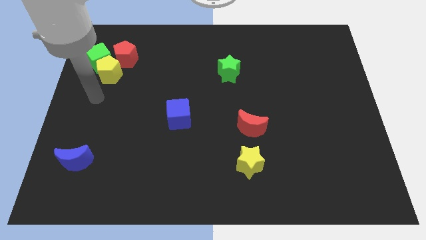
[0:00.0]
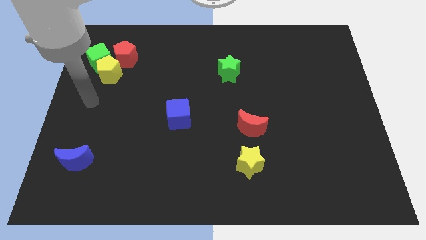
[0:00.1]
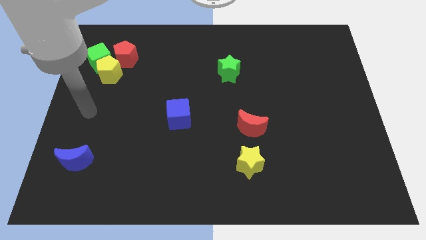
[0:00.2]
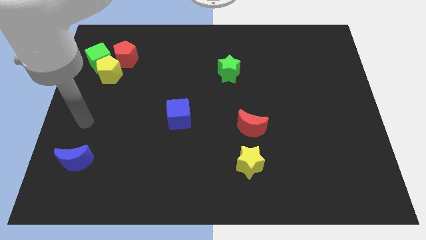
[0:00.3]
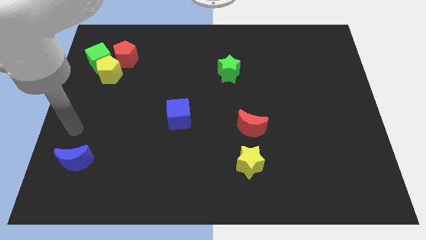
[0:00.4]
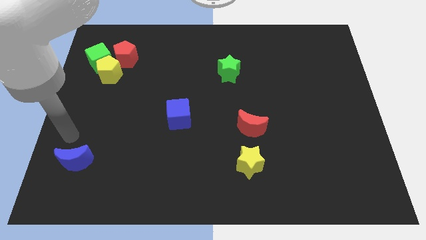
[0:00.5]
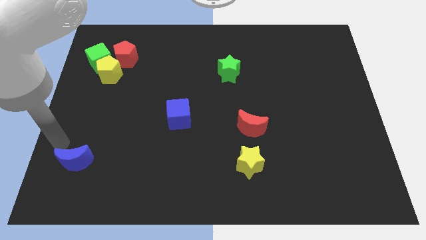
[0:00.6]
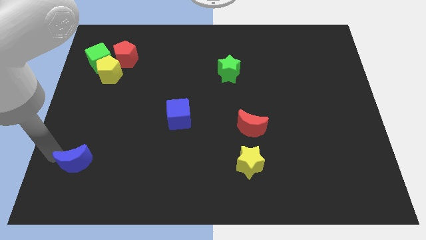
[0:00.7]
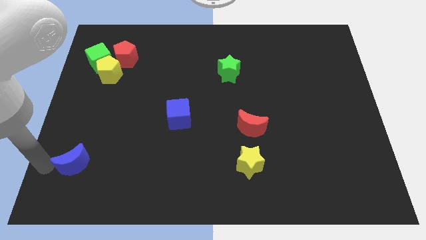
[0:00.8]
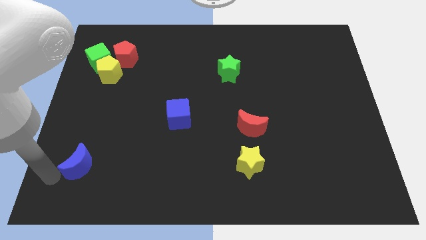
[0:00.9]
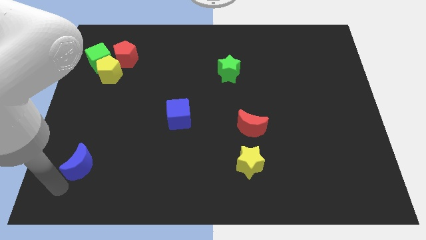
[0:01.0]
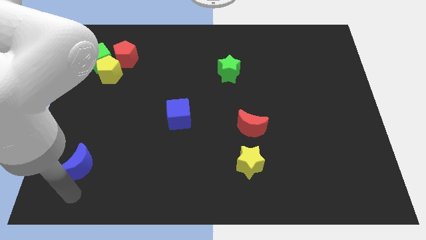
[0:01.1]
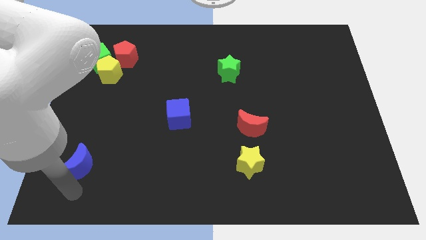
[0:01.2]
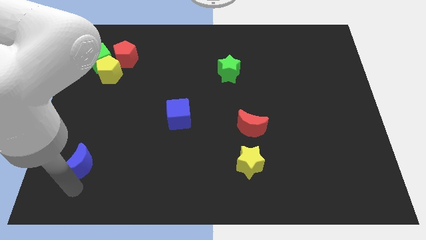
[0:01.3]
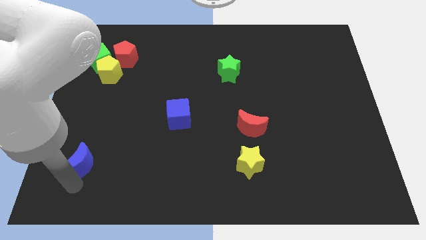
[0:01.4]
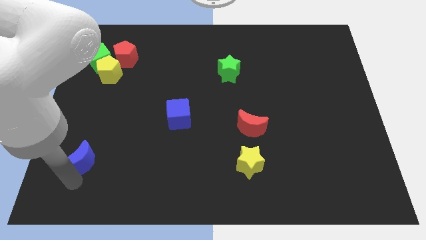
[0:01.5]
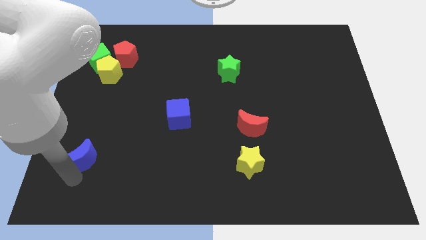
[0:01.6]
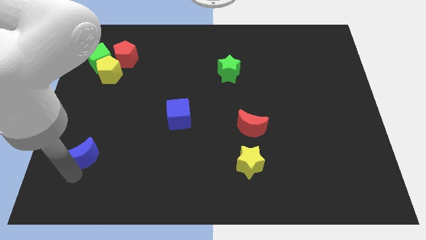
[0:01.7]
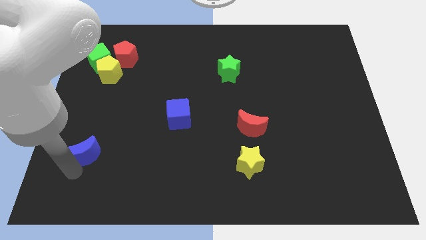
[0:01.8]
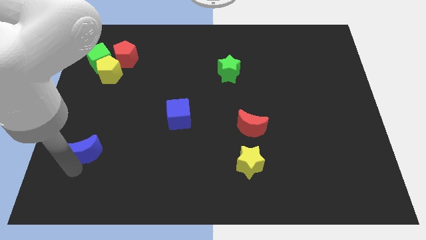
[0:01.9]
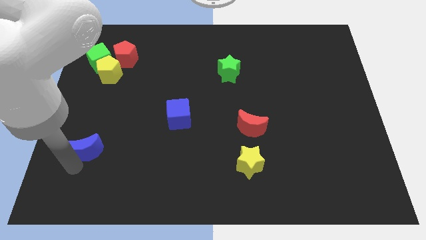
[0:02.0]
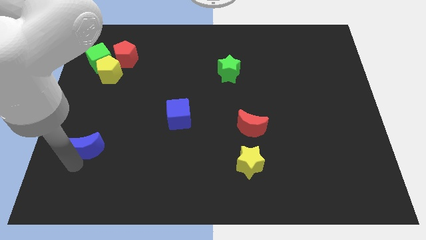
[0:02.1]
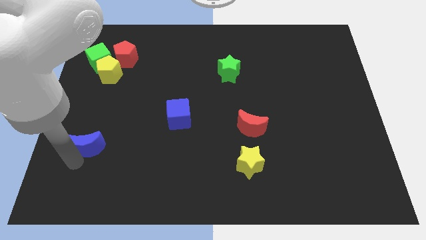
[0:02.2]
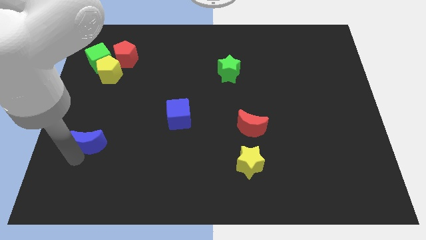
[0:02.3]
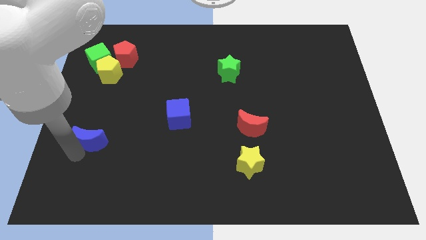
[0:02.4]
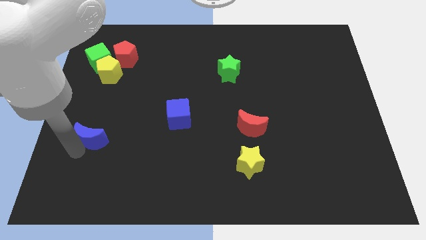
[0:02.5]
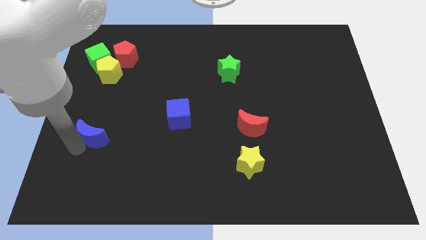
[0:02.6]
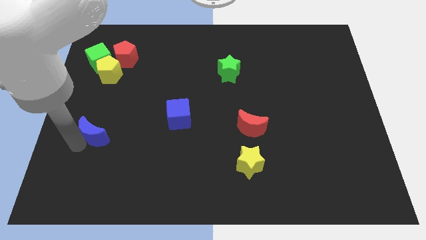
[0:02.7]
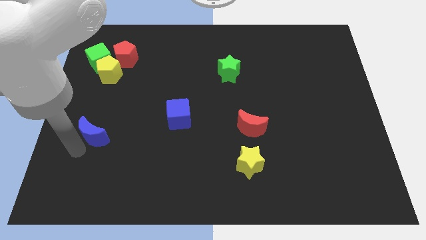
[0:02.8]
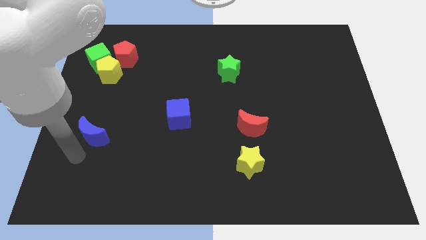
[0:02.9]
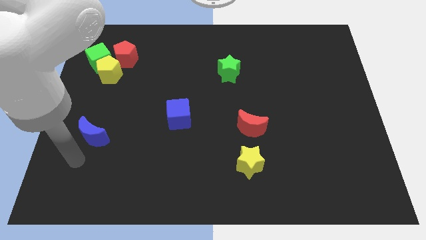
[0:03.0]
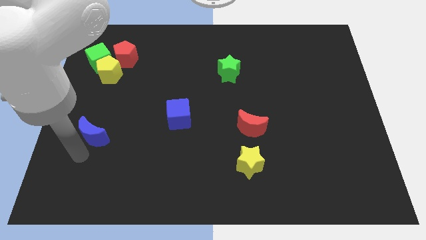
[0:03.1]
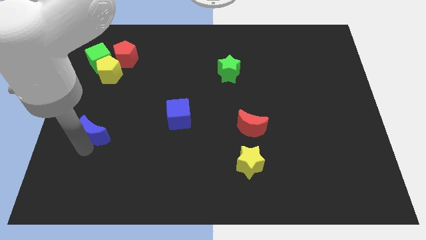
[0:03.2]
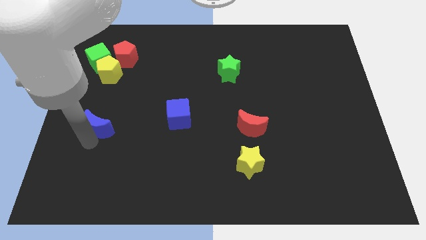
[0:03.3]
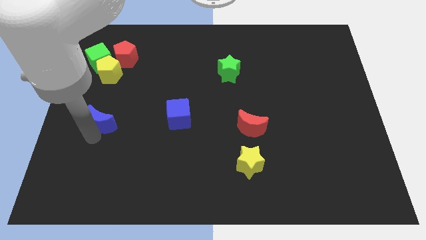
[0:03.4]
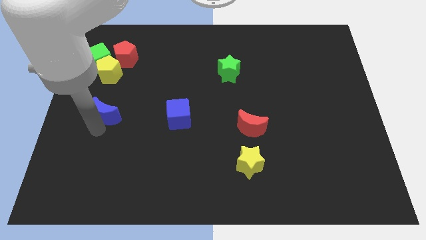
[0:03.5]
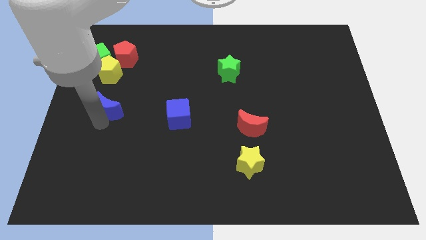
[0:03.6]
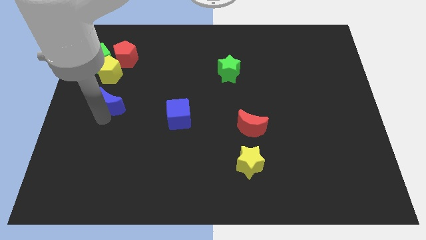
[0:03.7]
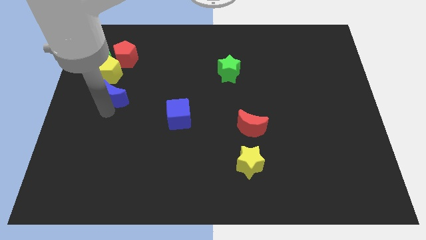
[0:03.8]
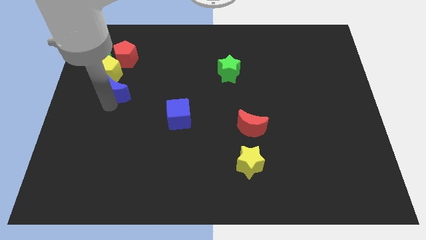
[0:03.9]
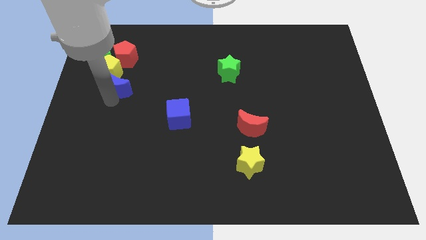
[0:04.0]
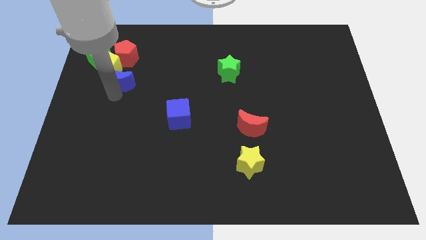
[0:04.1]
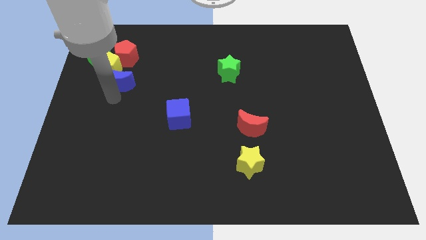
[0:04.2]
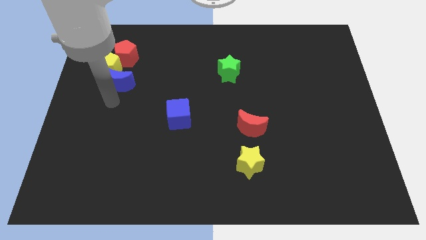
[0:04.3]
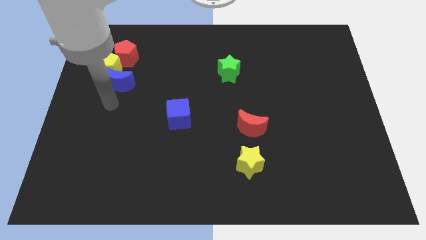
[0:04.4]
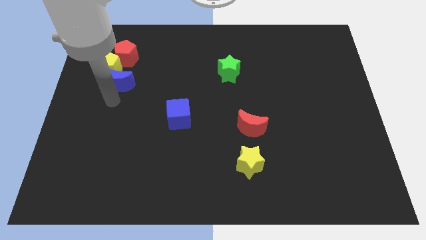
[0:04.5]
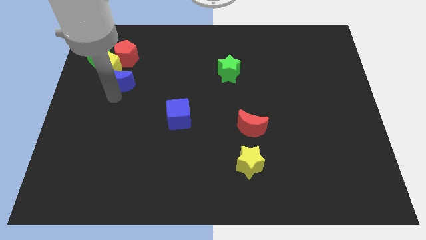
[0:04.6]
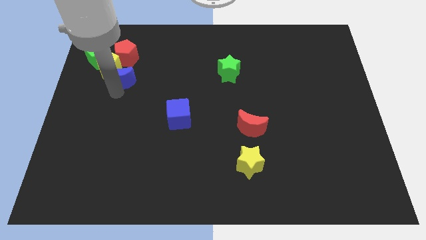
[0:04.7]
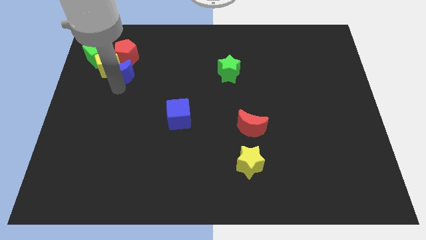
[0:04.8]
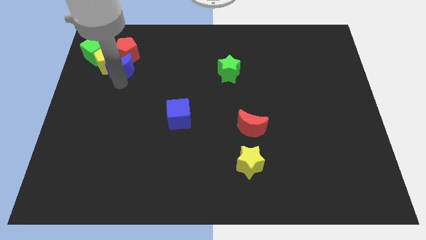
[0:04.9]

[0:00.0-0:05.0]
put the blue moon to the red pentagon

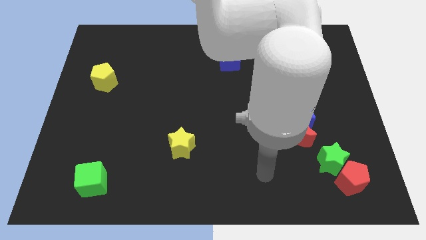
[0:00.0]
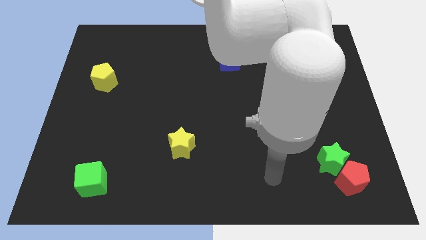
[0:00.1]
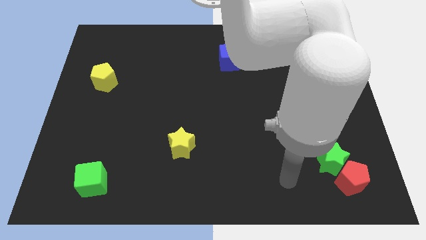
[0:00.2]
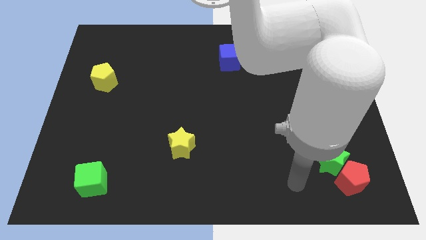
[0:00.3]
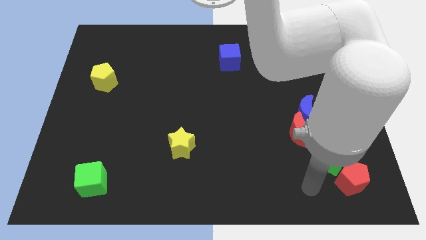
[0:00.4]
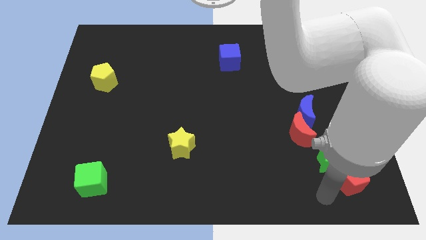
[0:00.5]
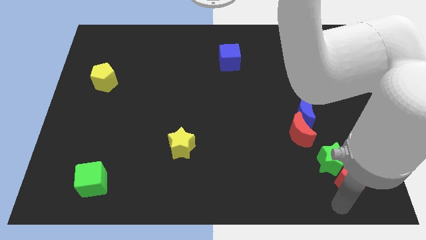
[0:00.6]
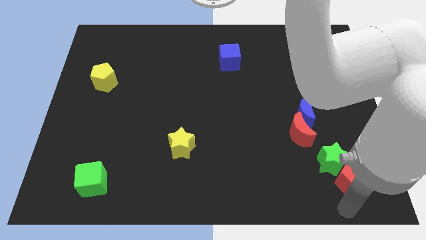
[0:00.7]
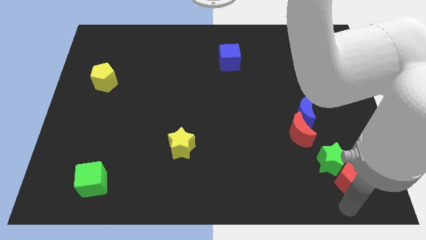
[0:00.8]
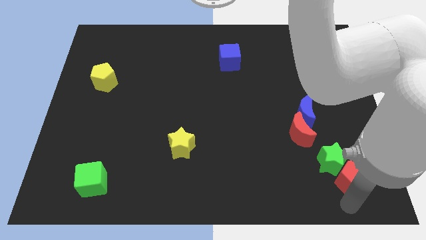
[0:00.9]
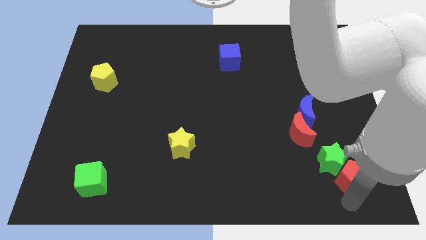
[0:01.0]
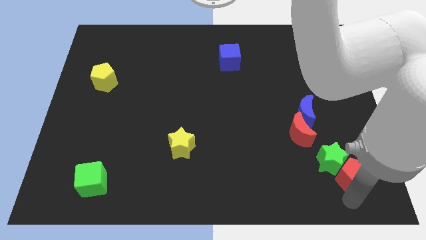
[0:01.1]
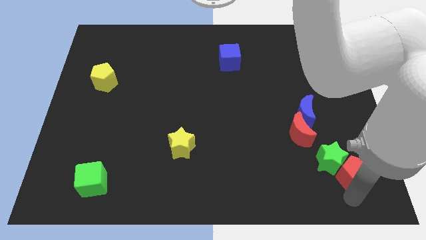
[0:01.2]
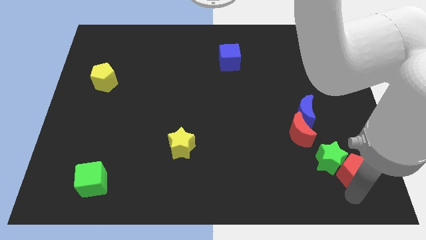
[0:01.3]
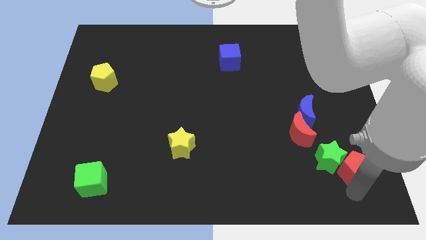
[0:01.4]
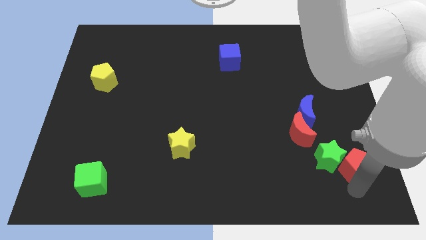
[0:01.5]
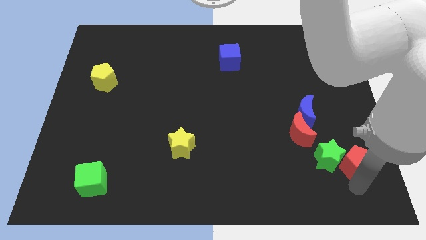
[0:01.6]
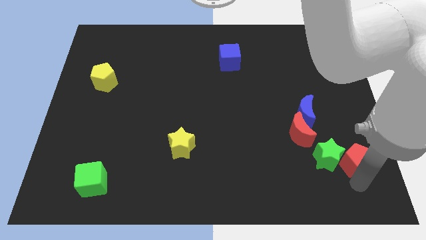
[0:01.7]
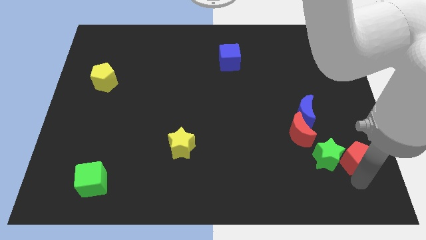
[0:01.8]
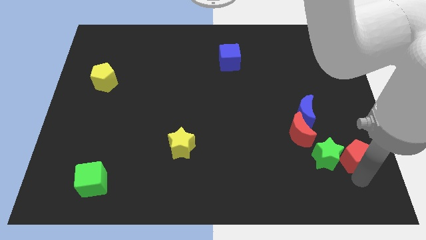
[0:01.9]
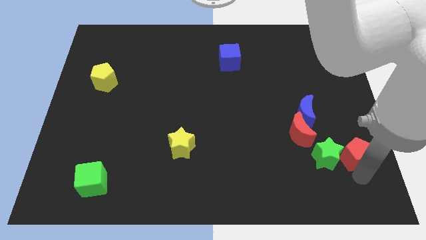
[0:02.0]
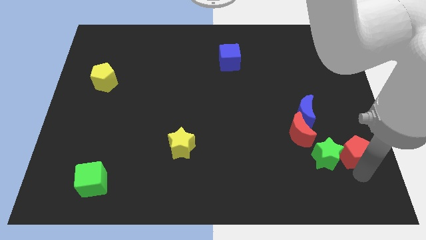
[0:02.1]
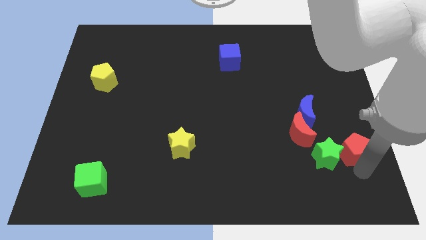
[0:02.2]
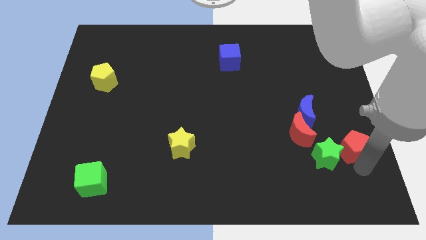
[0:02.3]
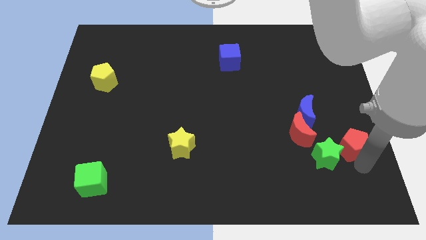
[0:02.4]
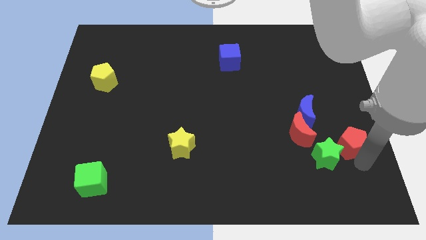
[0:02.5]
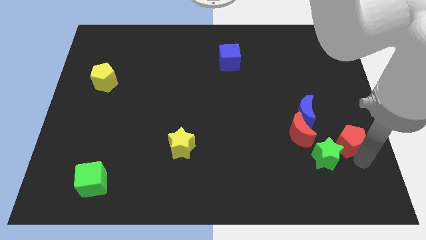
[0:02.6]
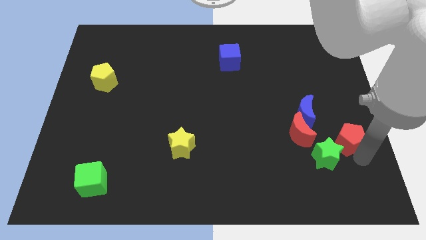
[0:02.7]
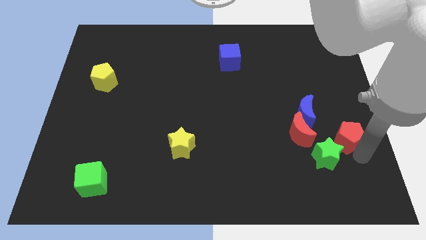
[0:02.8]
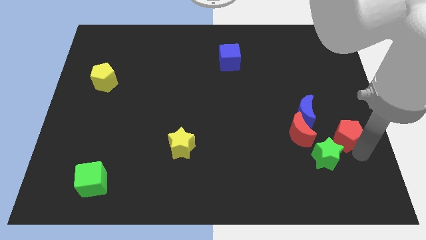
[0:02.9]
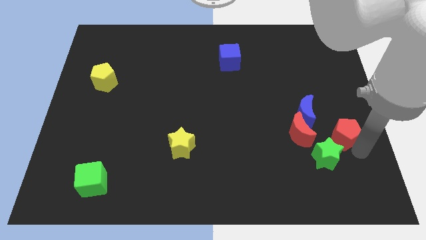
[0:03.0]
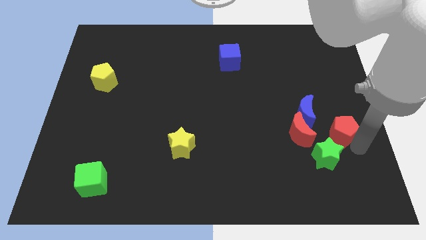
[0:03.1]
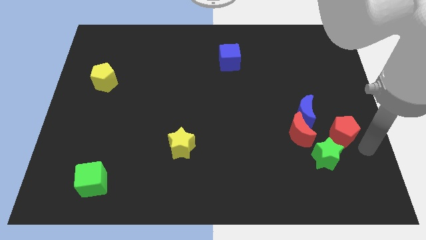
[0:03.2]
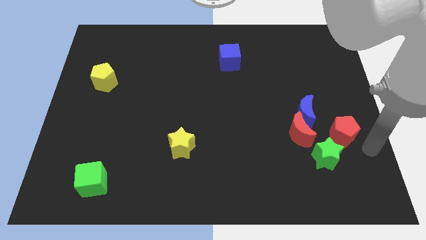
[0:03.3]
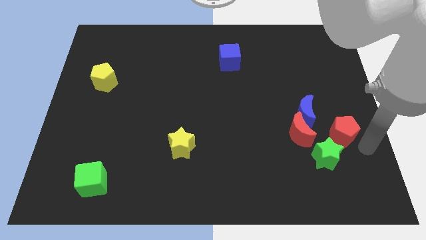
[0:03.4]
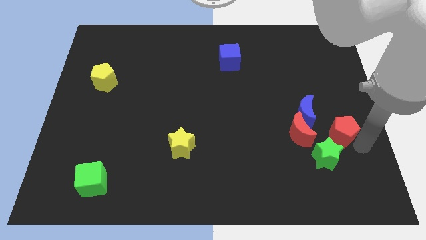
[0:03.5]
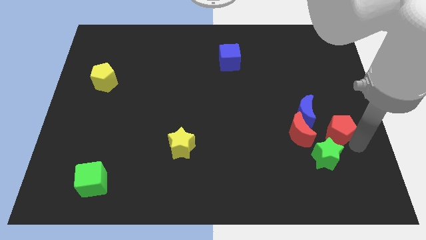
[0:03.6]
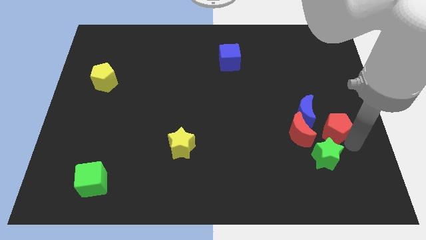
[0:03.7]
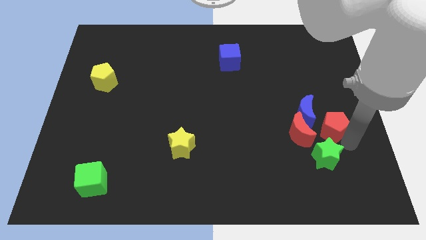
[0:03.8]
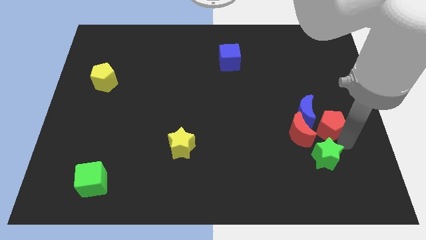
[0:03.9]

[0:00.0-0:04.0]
put the red pentagon towards the blue moon
